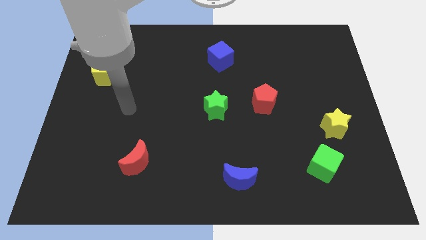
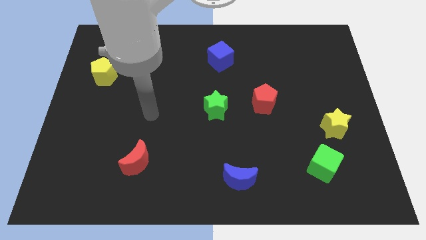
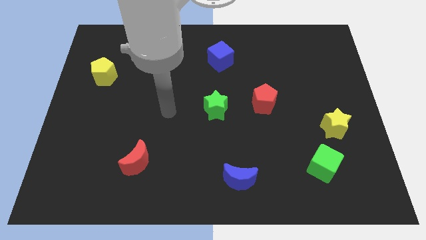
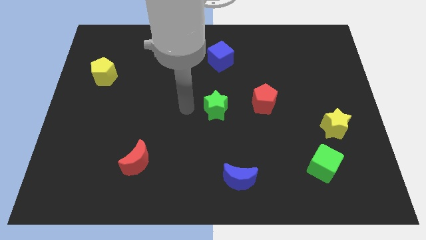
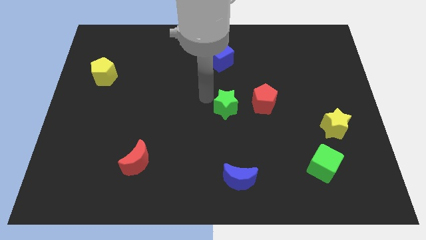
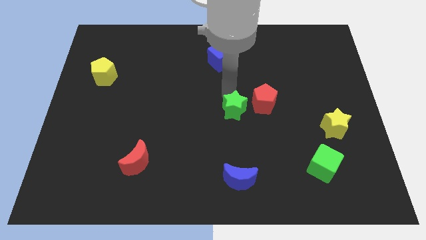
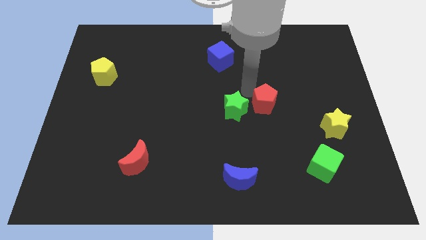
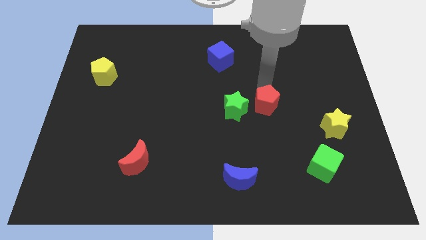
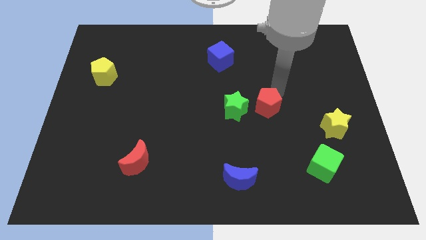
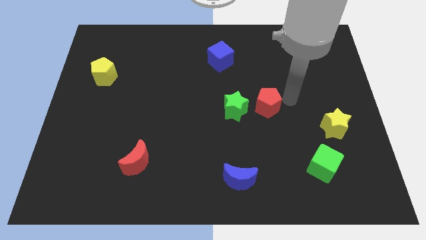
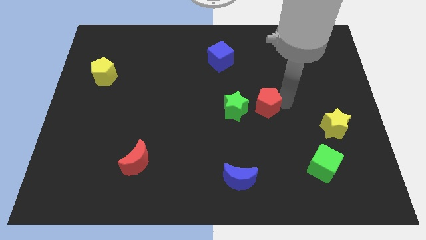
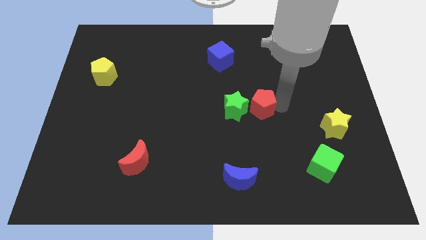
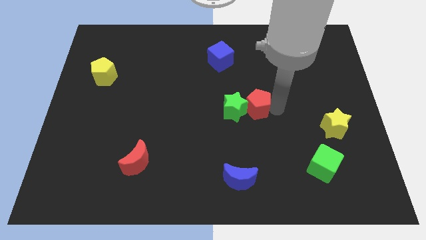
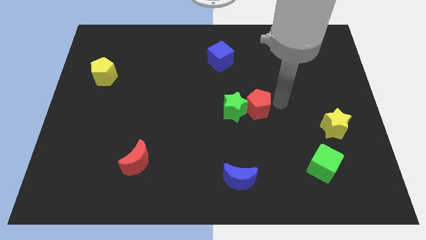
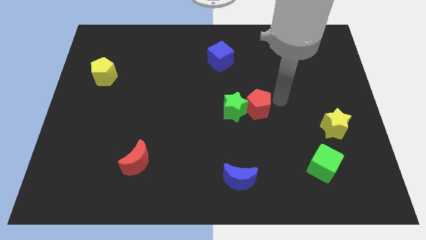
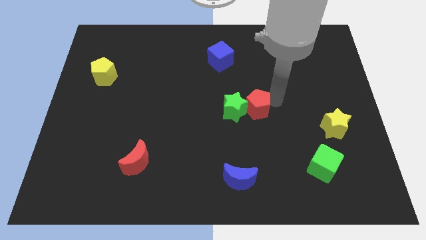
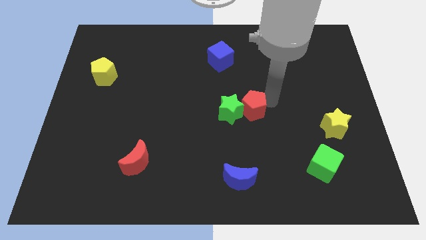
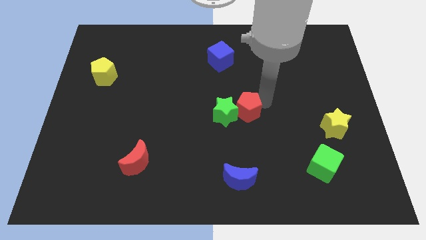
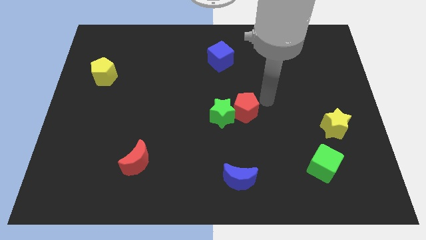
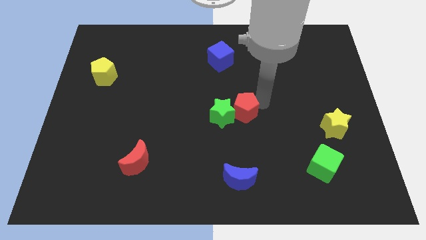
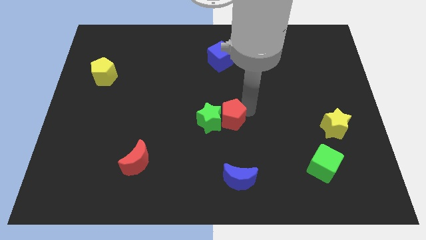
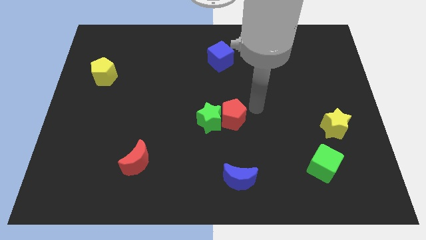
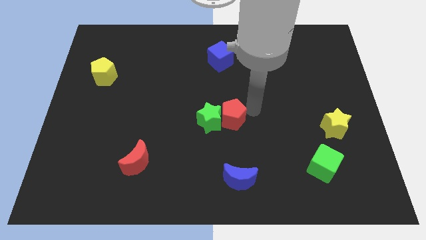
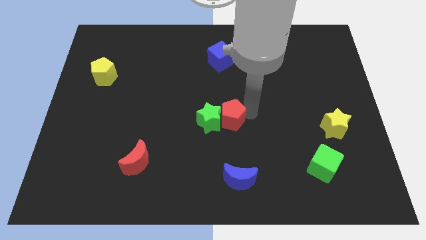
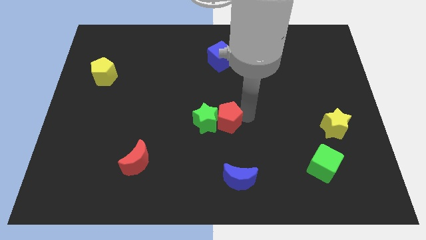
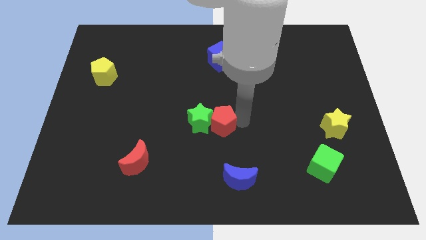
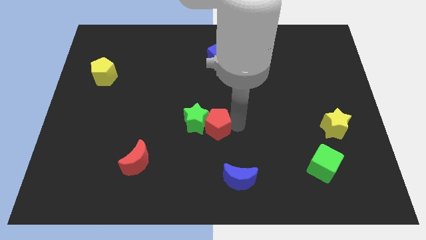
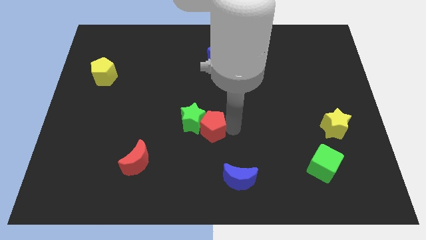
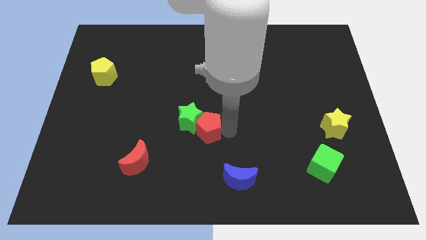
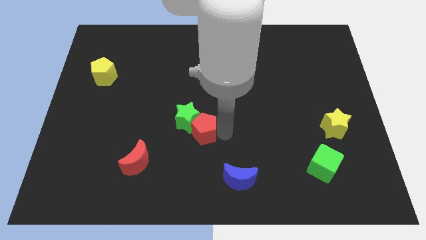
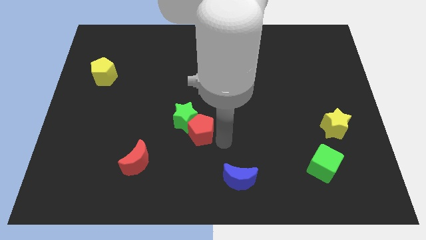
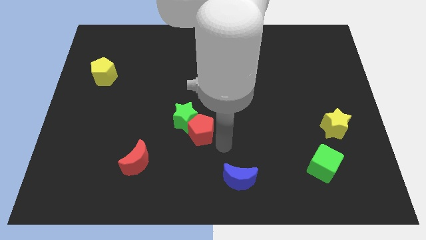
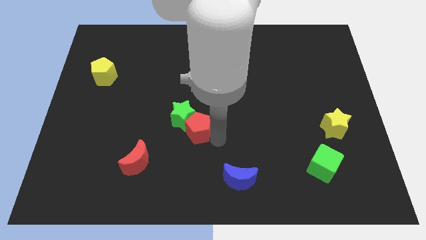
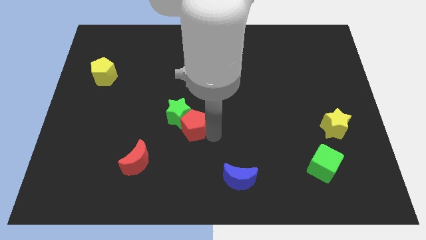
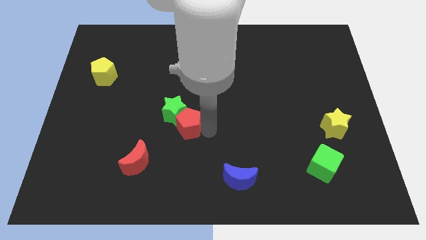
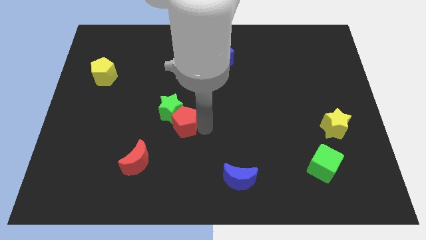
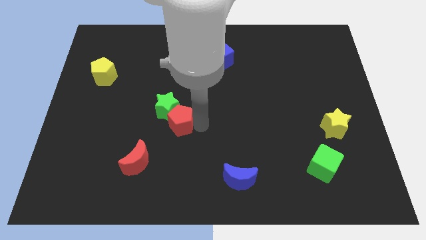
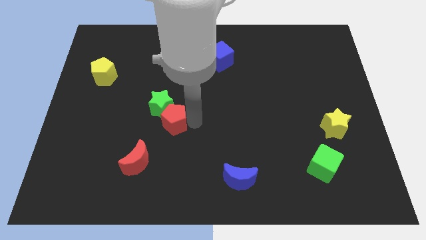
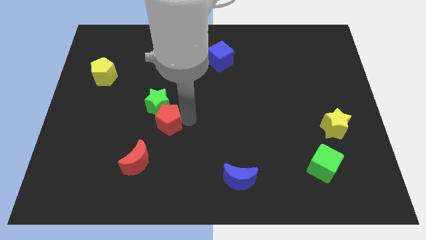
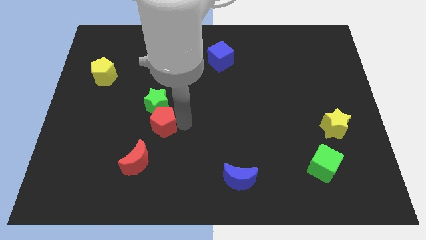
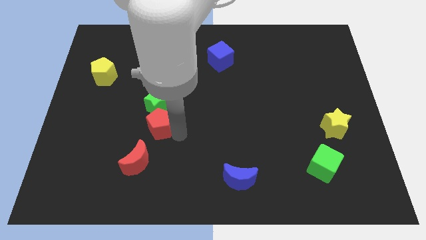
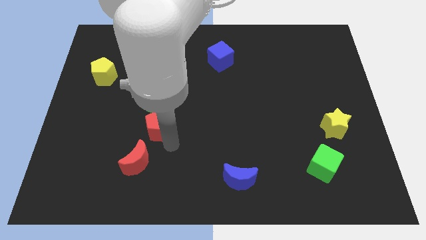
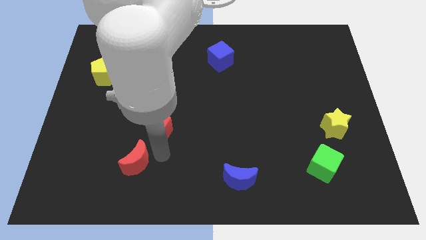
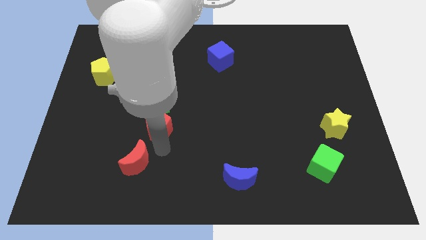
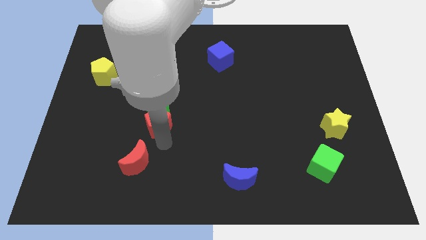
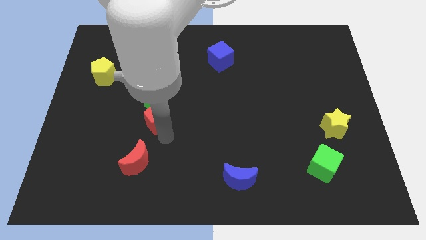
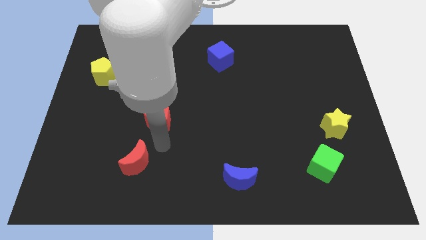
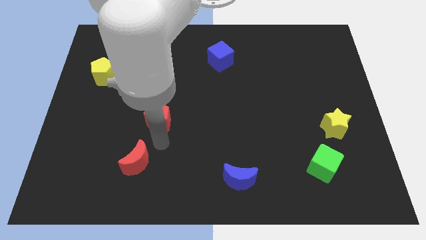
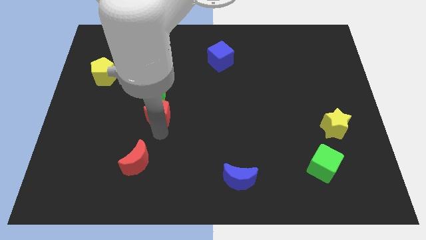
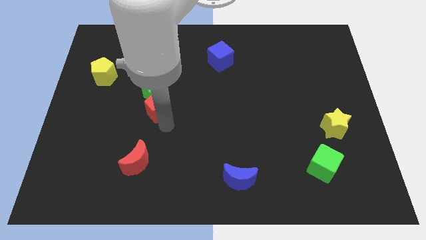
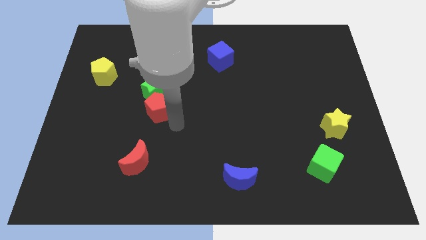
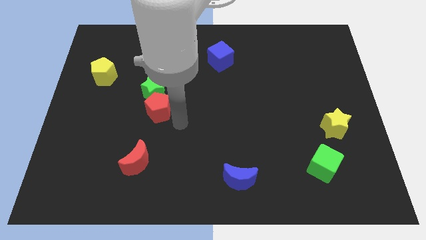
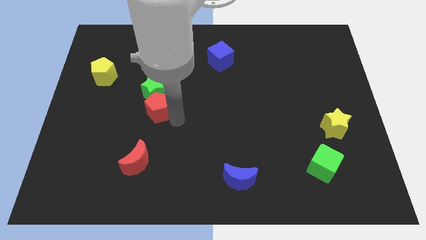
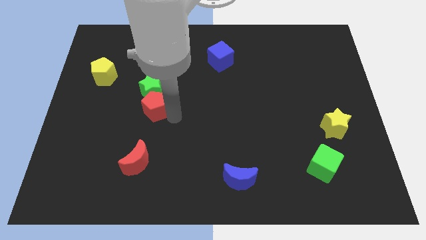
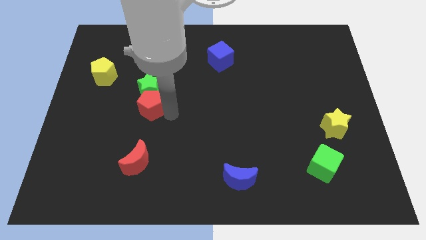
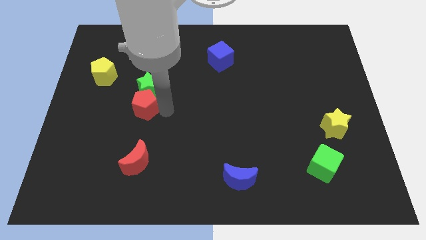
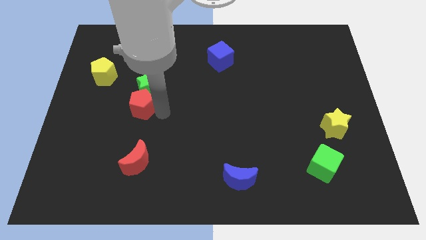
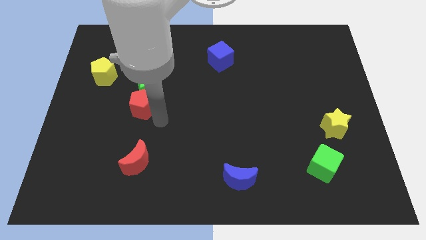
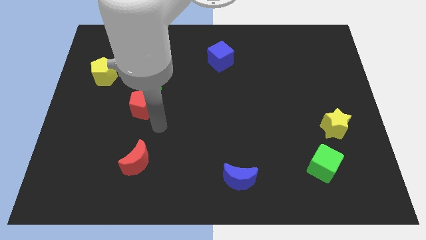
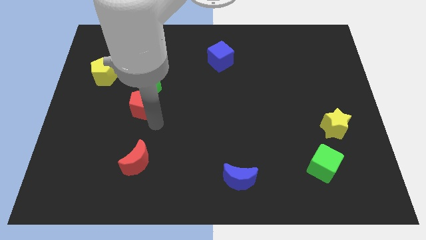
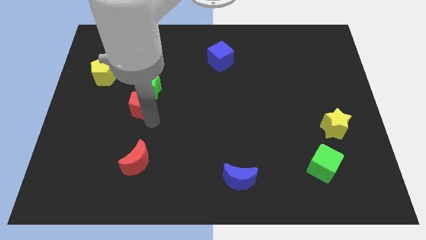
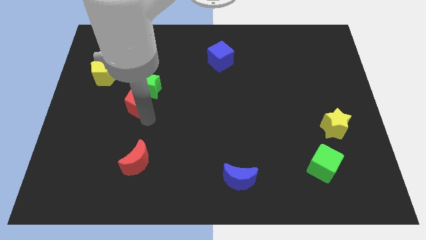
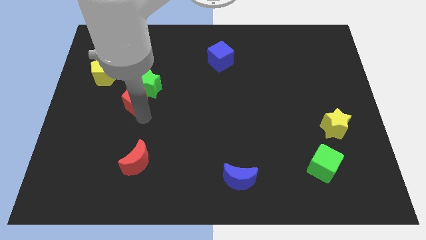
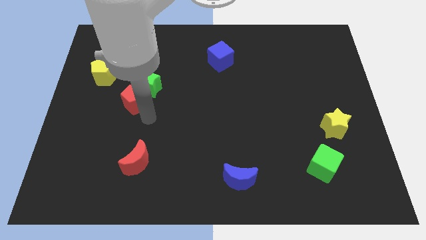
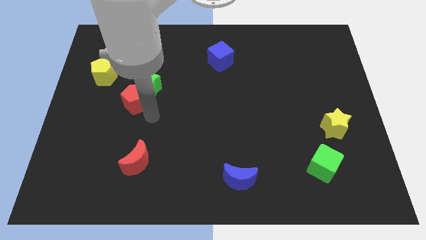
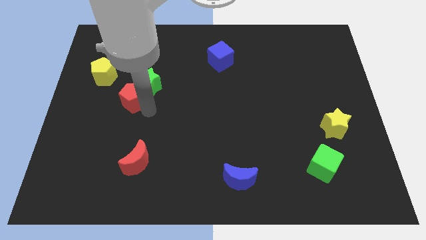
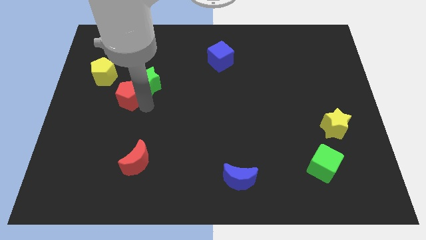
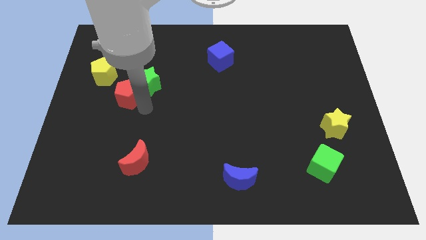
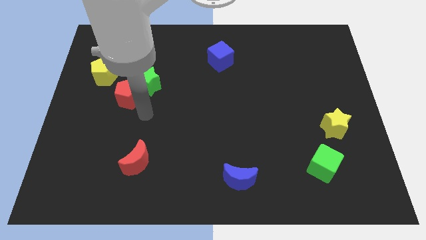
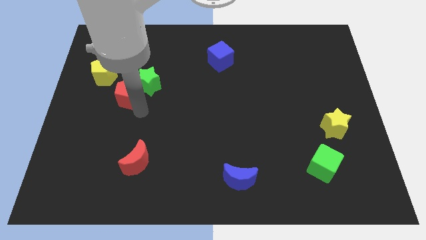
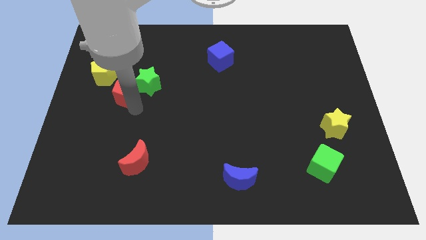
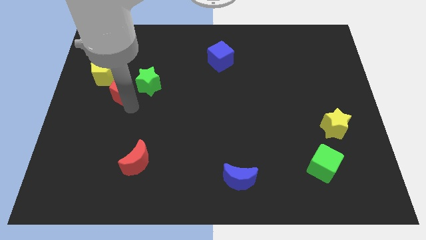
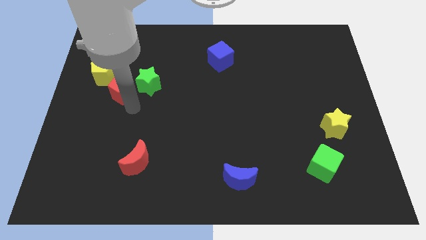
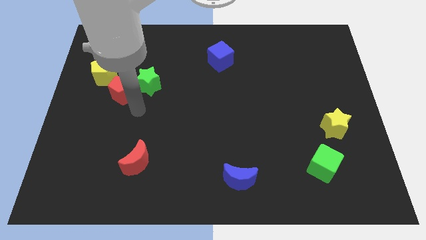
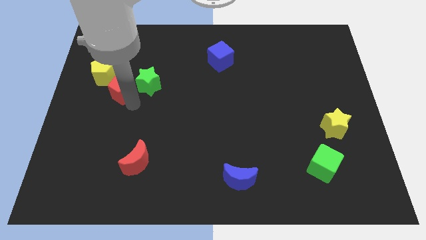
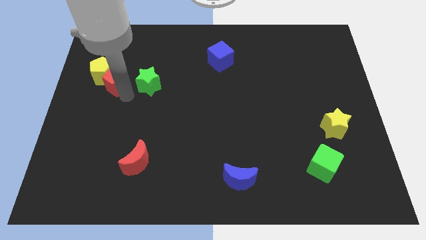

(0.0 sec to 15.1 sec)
slide the red pentagon to the yellow pentagon
